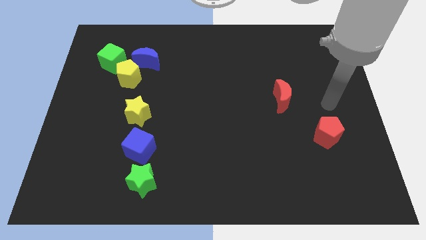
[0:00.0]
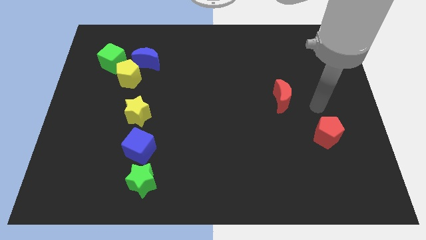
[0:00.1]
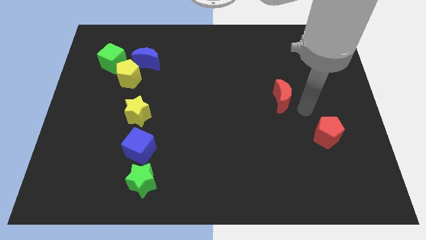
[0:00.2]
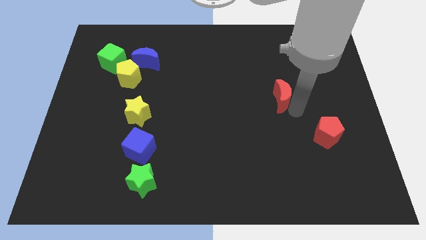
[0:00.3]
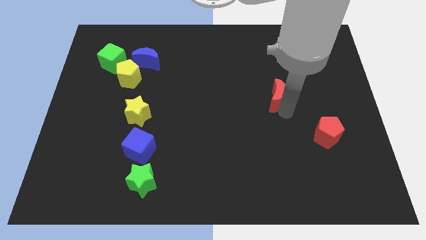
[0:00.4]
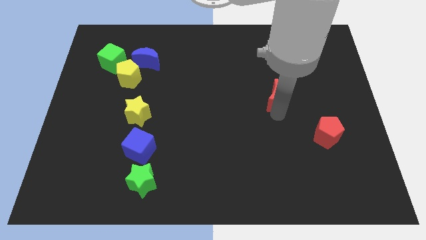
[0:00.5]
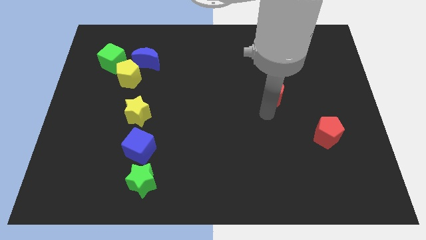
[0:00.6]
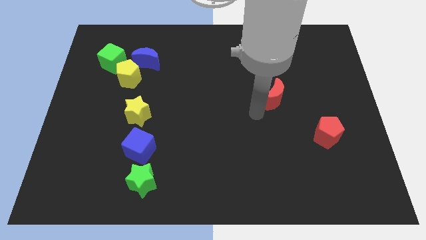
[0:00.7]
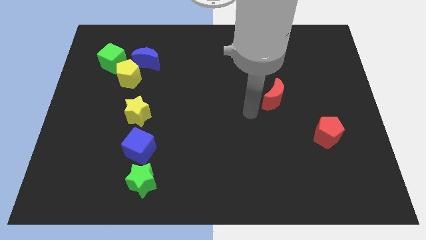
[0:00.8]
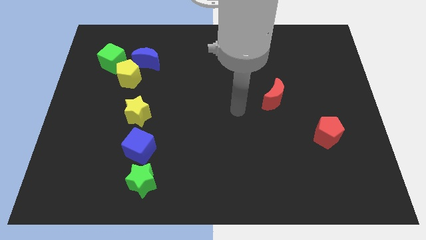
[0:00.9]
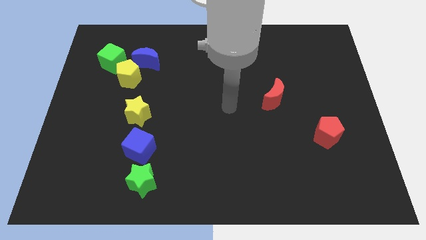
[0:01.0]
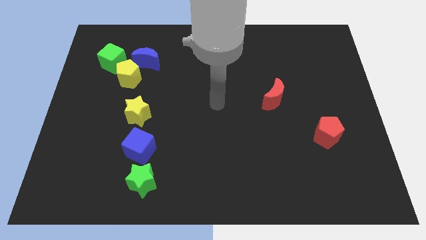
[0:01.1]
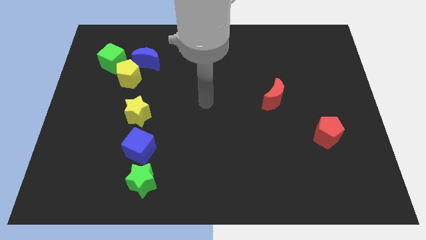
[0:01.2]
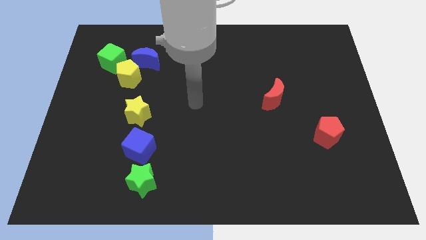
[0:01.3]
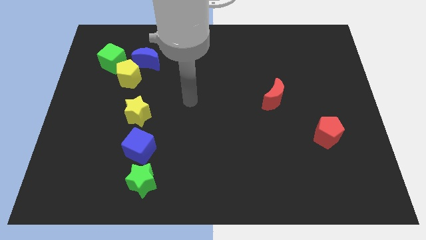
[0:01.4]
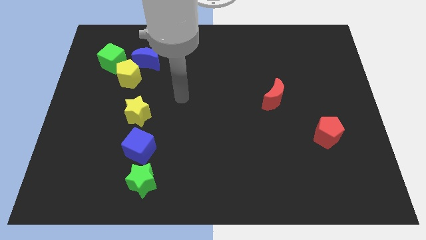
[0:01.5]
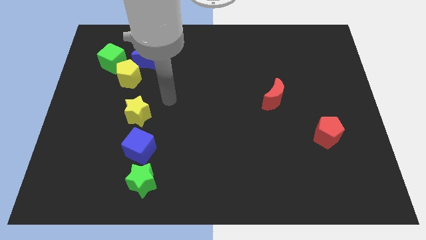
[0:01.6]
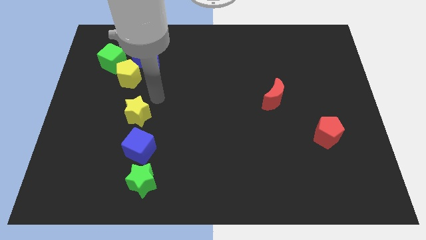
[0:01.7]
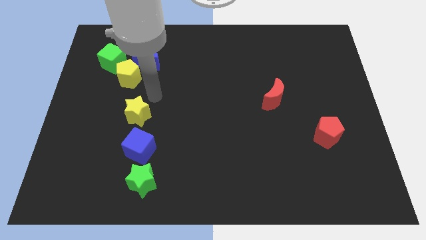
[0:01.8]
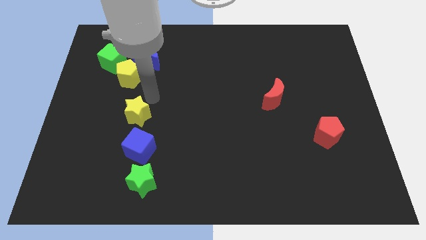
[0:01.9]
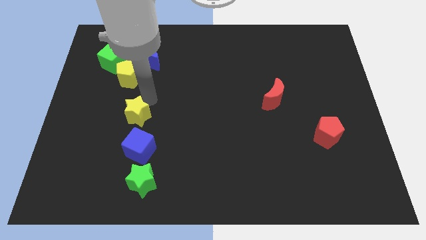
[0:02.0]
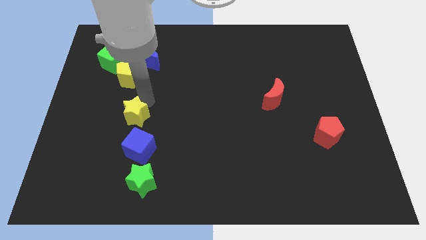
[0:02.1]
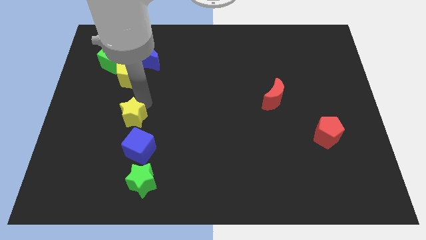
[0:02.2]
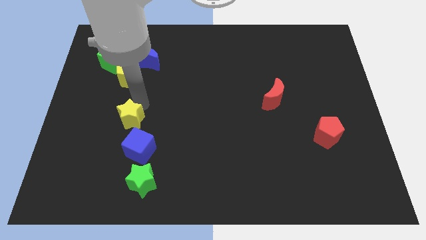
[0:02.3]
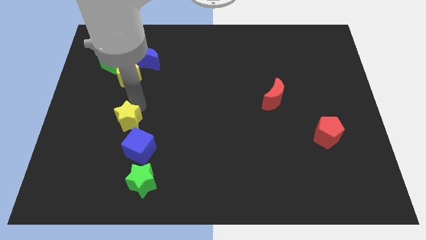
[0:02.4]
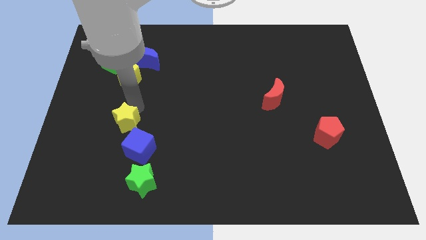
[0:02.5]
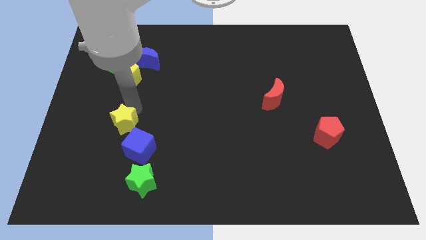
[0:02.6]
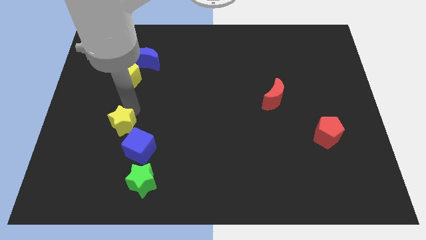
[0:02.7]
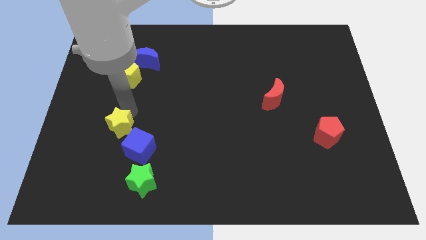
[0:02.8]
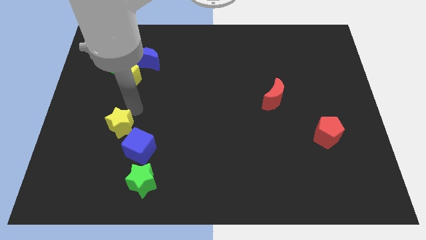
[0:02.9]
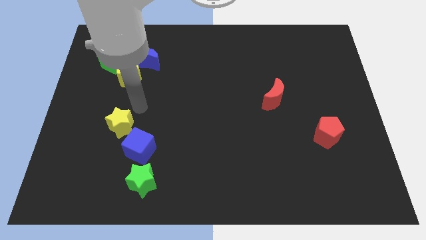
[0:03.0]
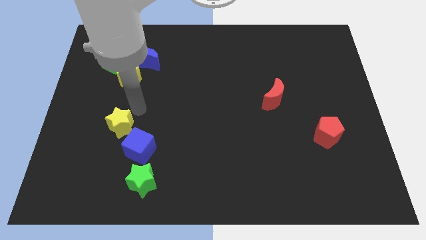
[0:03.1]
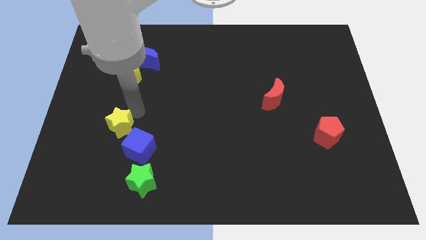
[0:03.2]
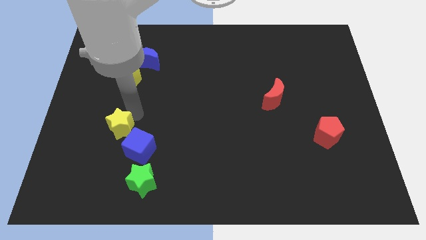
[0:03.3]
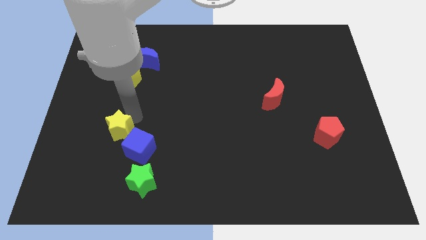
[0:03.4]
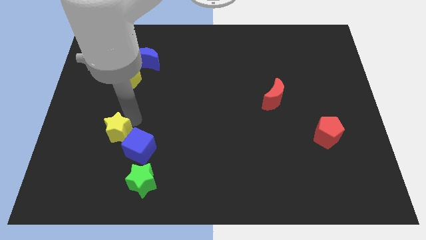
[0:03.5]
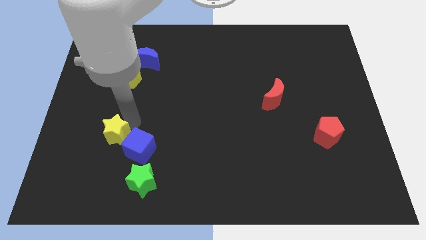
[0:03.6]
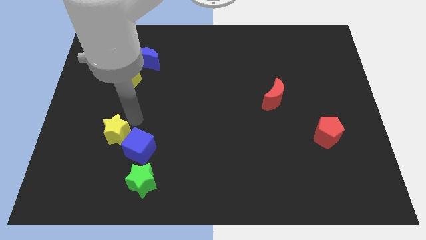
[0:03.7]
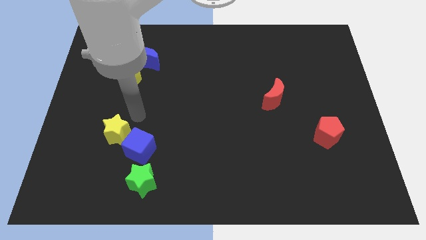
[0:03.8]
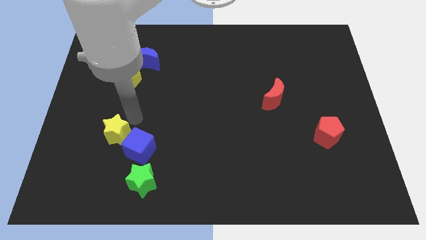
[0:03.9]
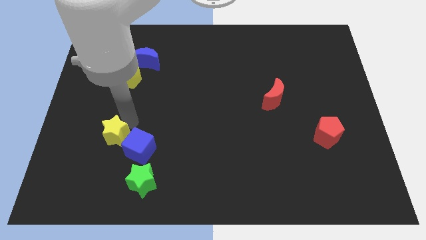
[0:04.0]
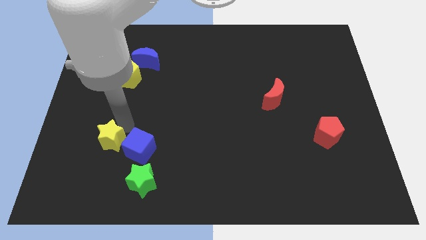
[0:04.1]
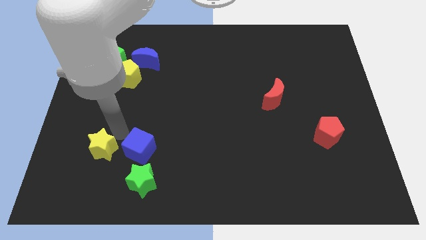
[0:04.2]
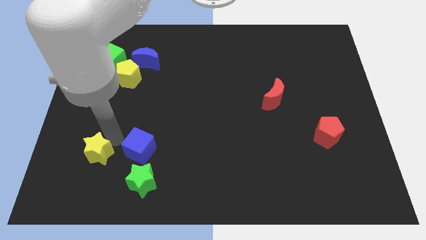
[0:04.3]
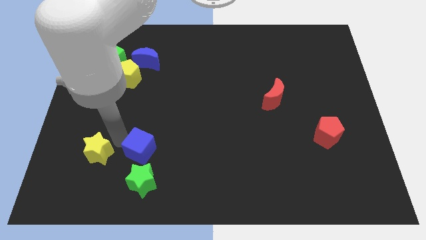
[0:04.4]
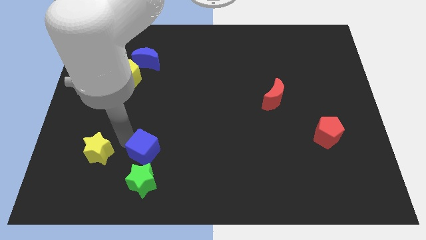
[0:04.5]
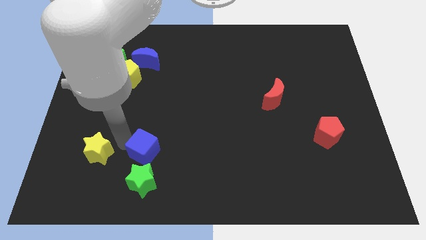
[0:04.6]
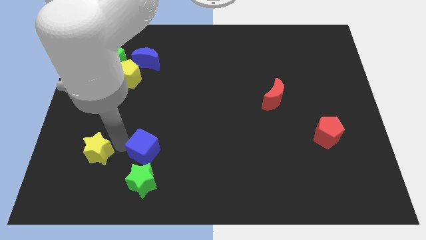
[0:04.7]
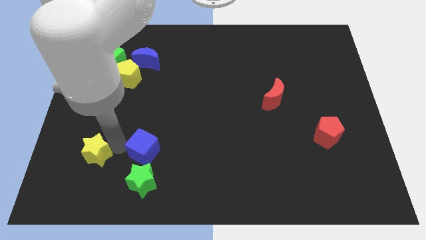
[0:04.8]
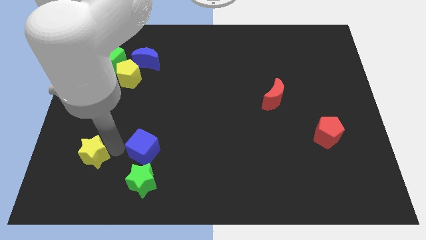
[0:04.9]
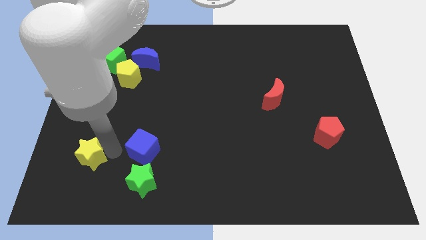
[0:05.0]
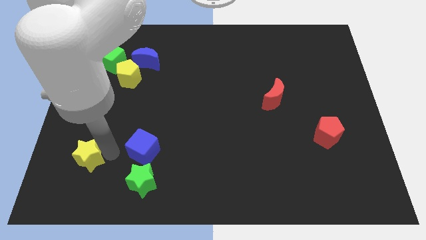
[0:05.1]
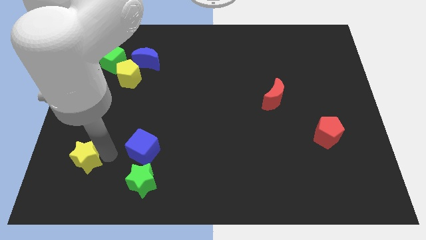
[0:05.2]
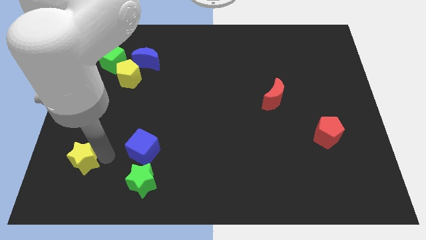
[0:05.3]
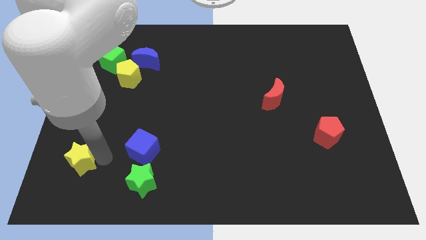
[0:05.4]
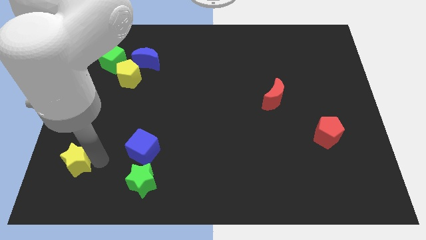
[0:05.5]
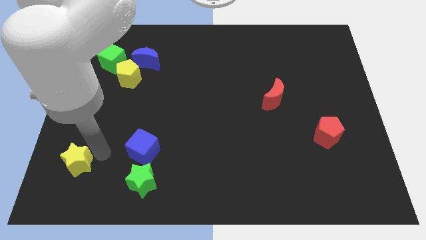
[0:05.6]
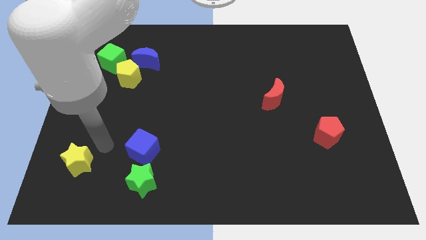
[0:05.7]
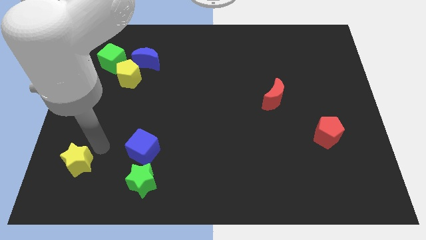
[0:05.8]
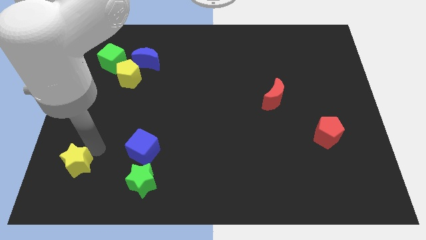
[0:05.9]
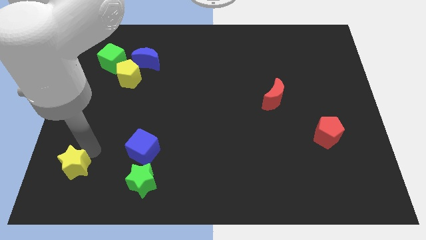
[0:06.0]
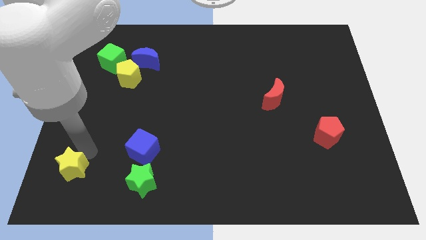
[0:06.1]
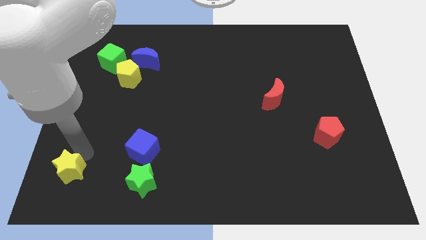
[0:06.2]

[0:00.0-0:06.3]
move the yellow star to the bottom left of the board

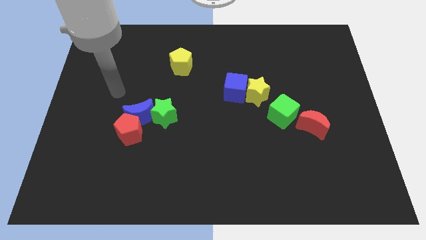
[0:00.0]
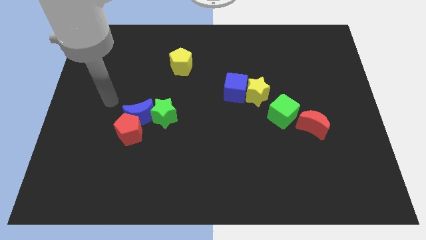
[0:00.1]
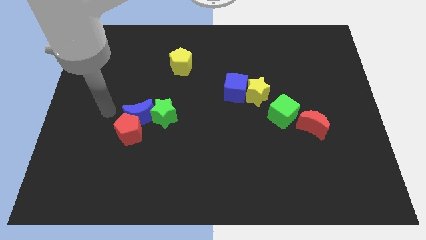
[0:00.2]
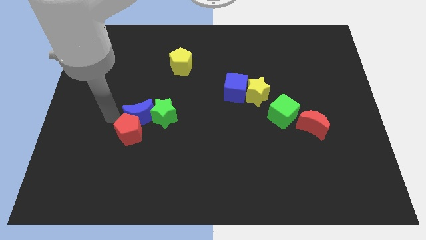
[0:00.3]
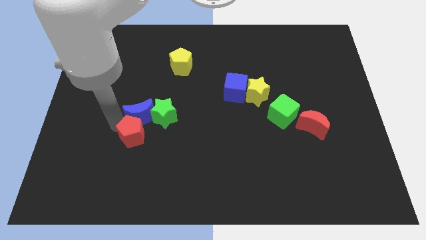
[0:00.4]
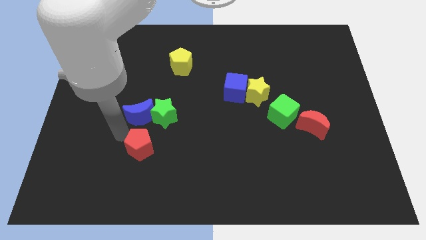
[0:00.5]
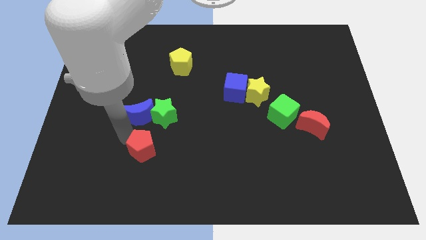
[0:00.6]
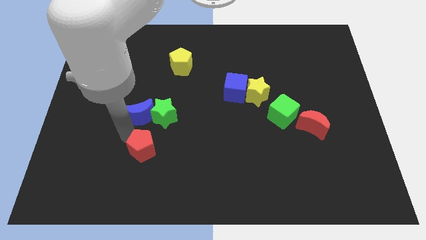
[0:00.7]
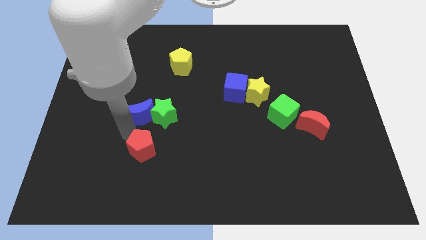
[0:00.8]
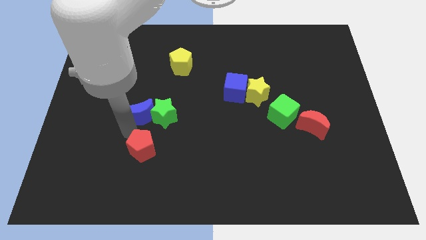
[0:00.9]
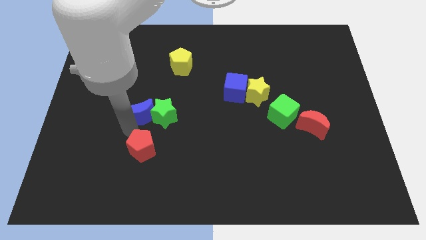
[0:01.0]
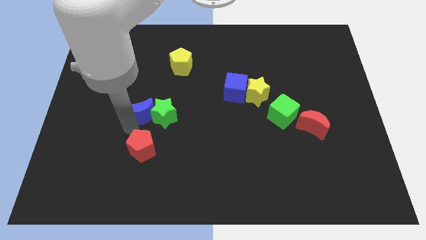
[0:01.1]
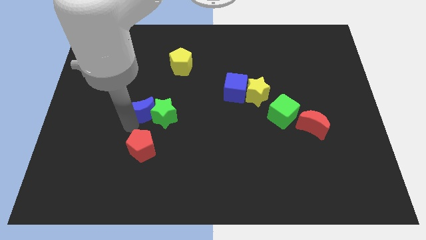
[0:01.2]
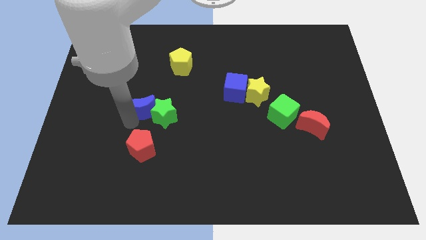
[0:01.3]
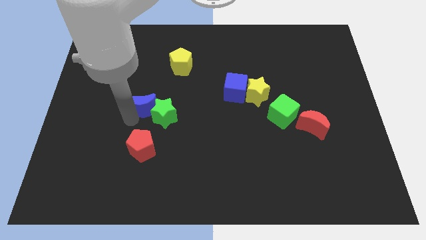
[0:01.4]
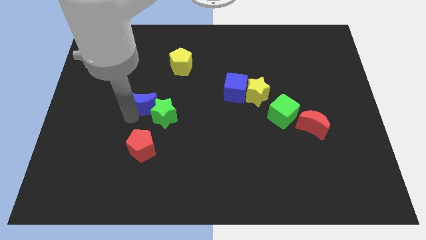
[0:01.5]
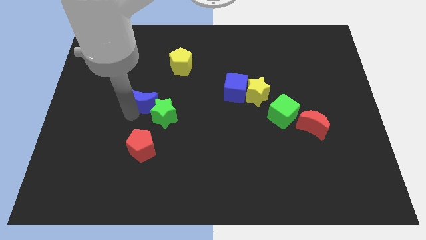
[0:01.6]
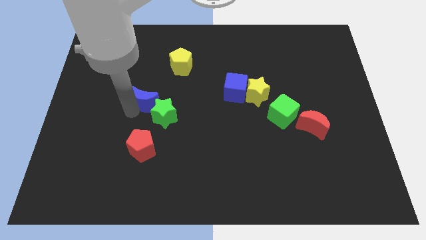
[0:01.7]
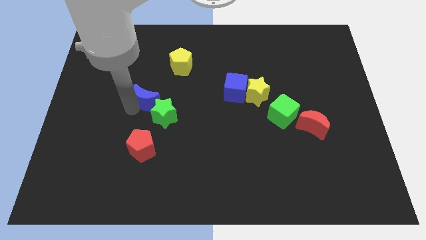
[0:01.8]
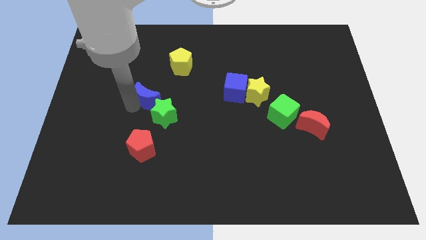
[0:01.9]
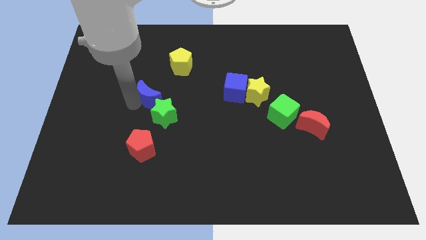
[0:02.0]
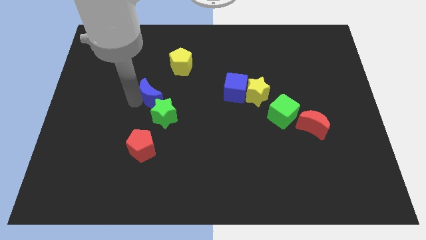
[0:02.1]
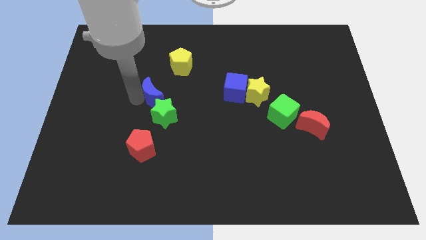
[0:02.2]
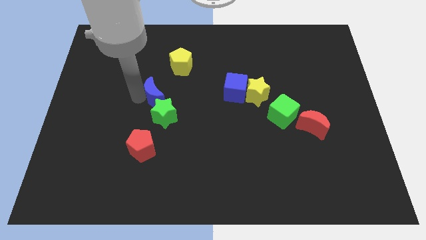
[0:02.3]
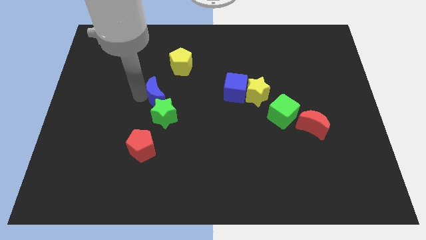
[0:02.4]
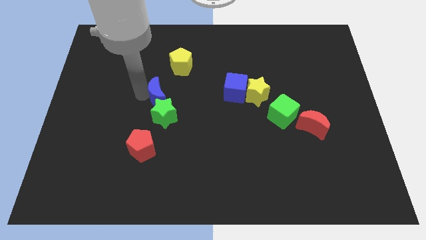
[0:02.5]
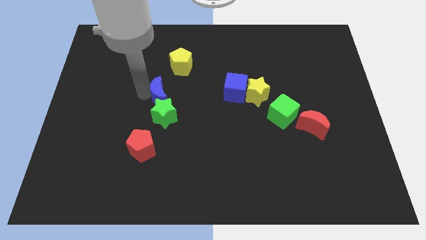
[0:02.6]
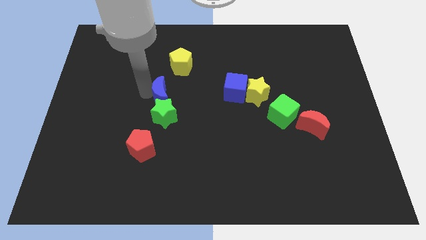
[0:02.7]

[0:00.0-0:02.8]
move the blue moon to the center
